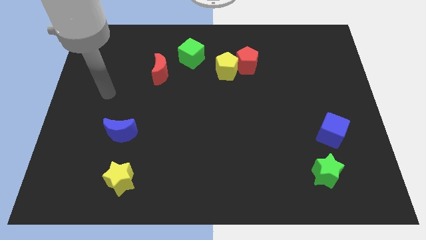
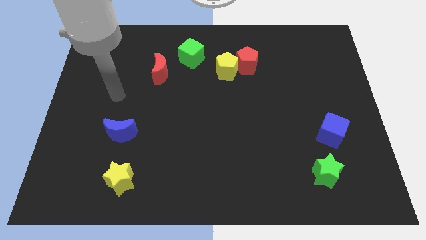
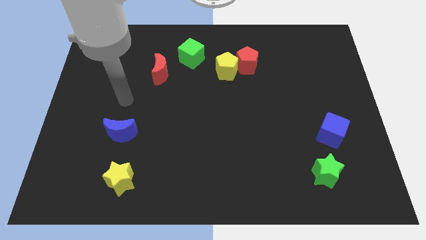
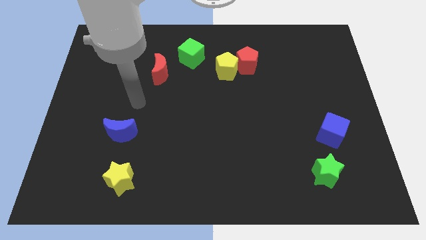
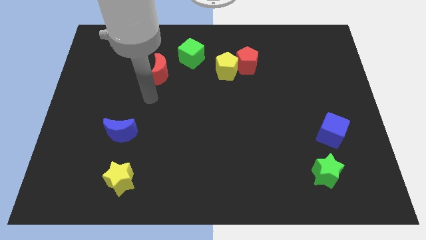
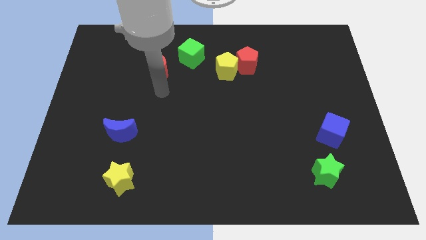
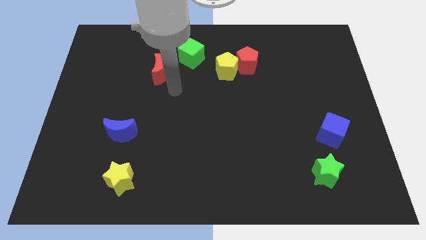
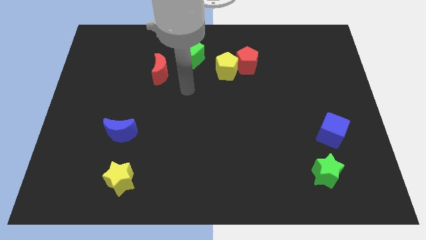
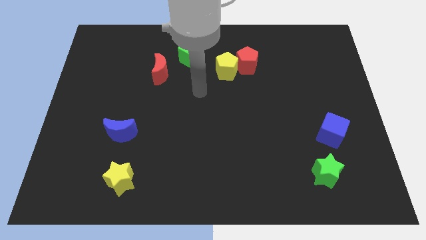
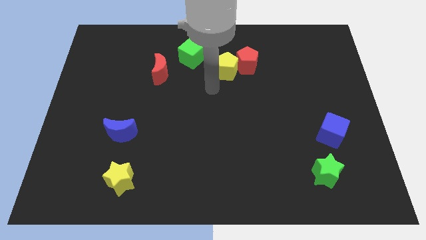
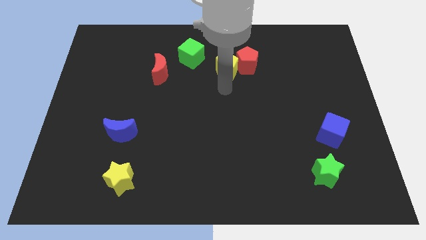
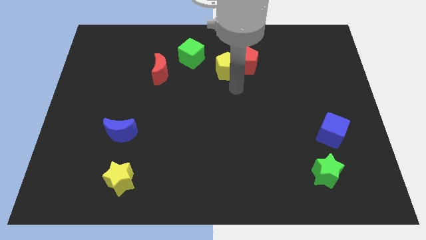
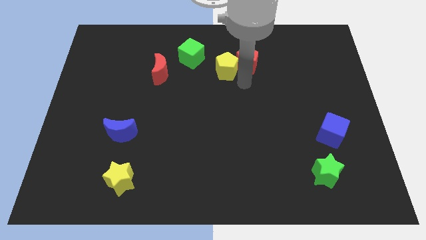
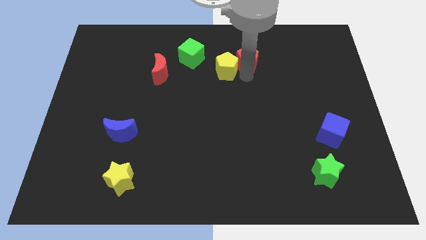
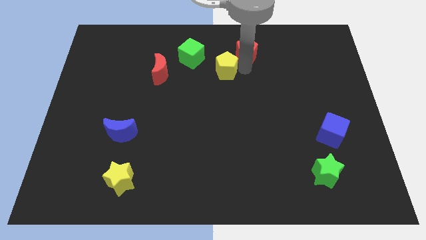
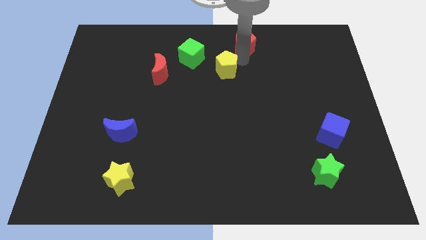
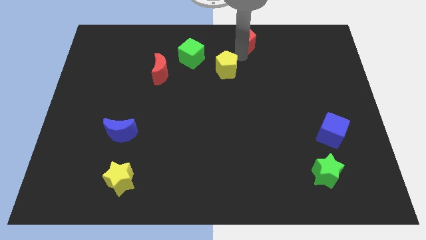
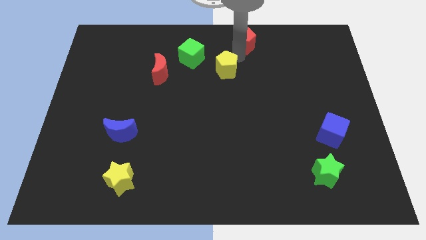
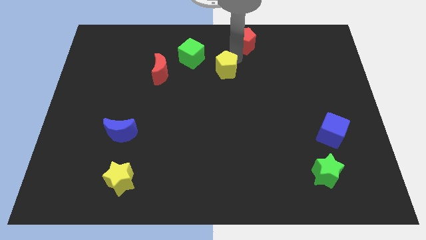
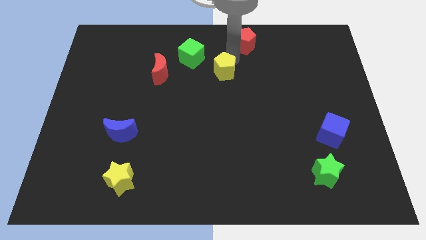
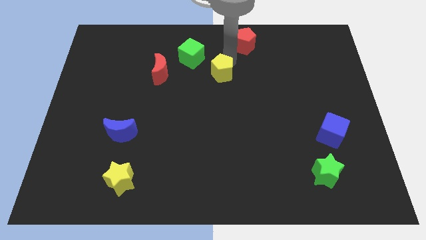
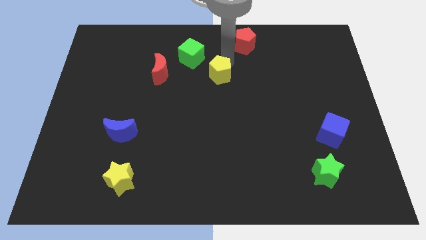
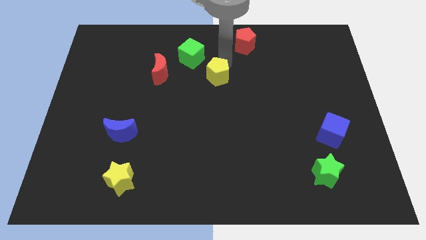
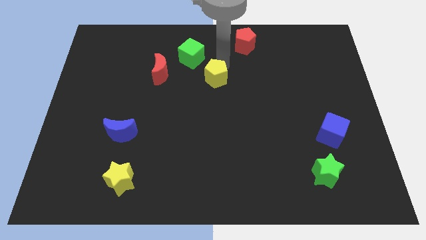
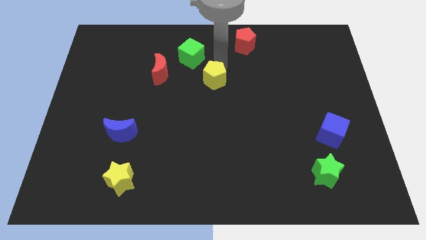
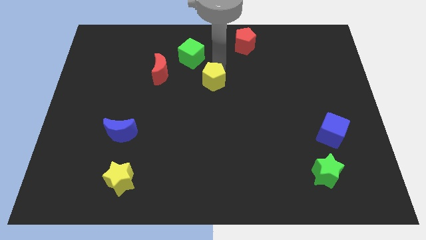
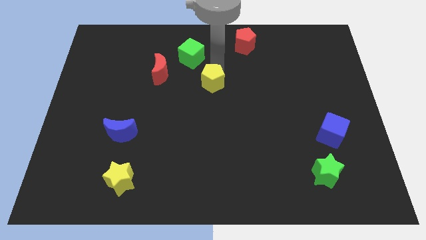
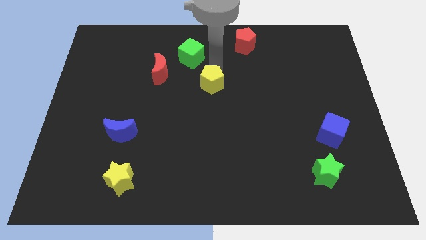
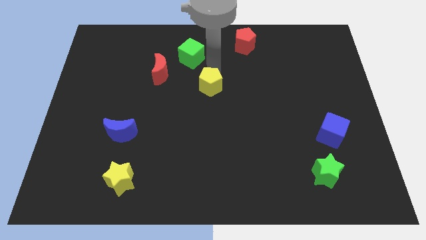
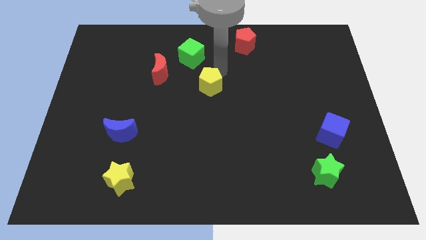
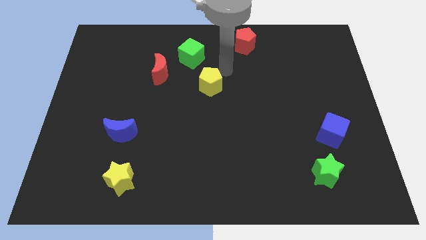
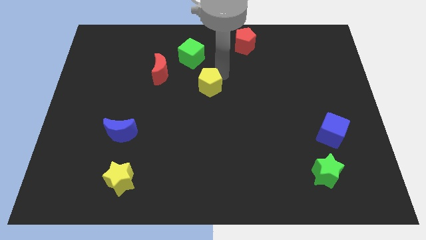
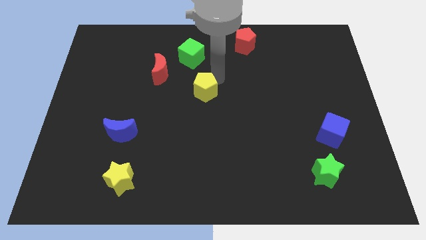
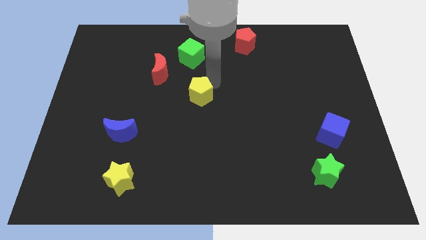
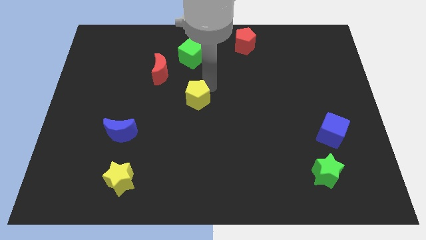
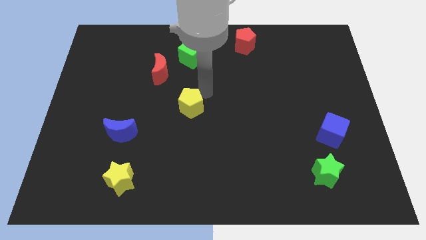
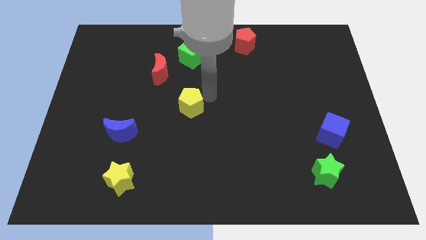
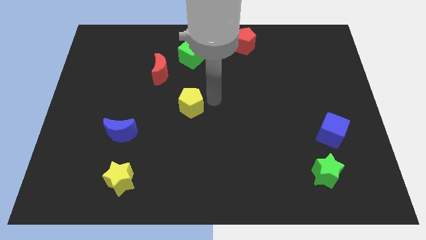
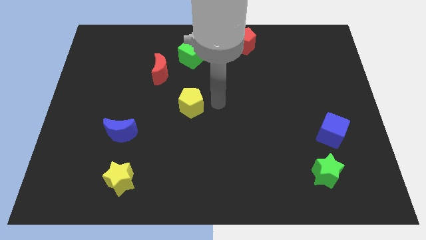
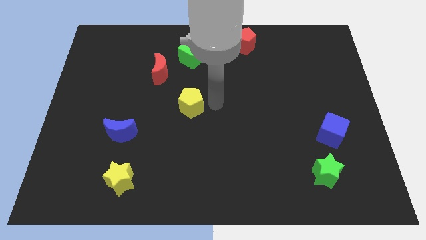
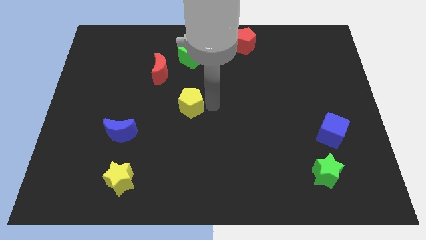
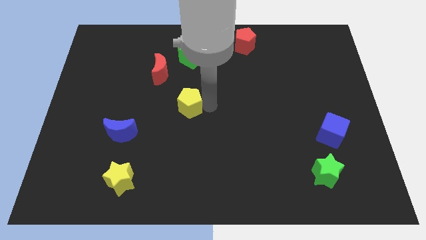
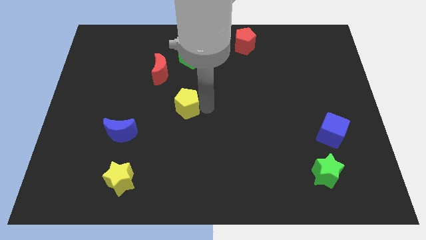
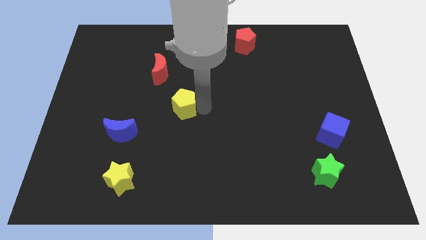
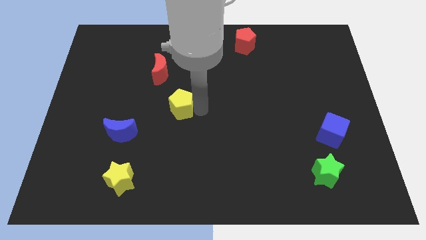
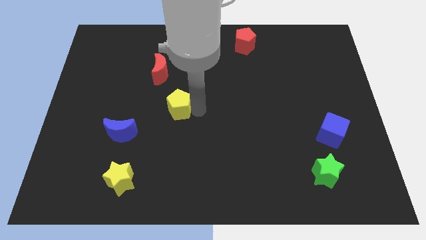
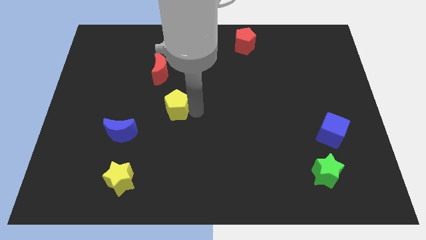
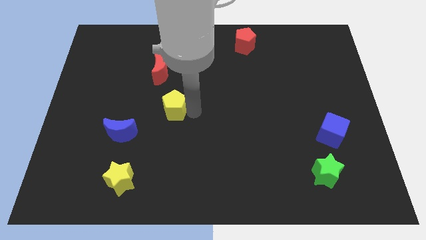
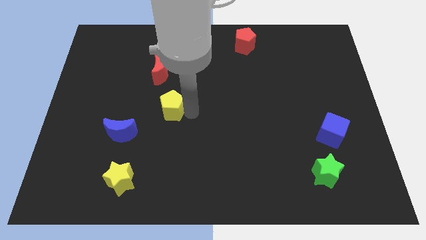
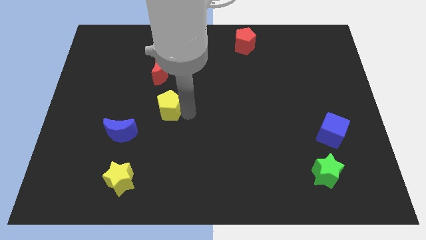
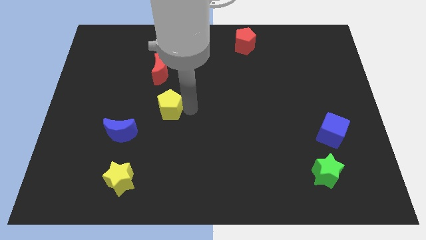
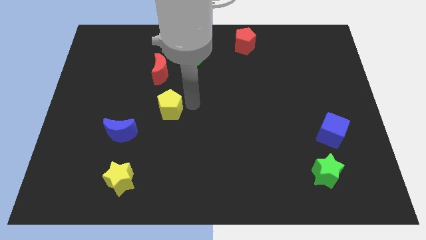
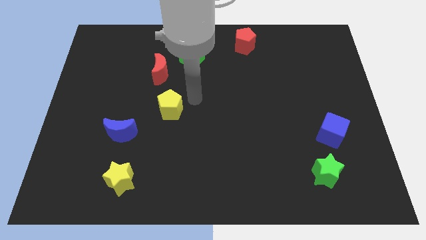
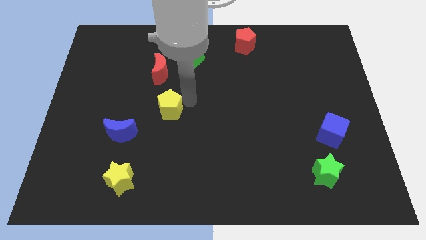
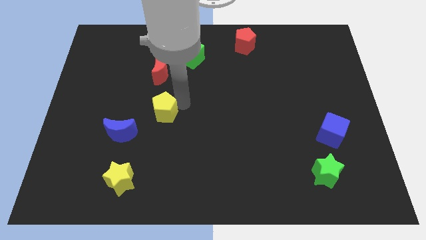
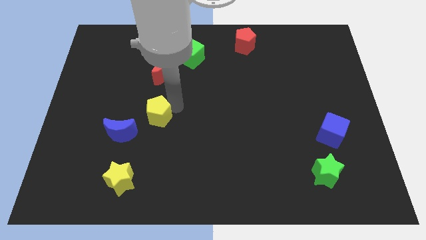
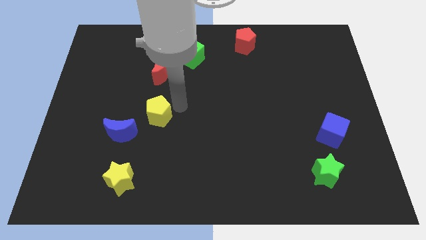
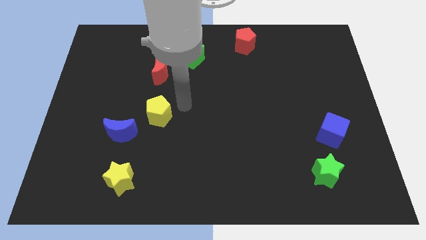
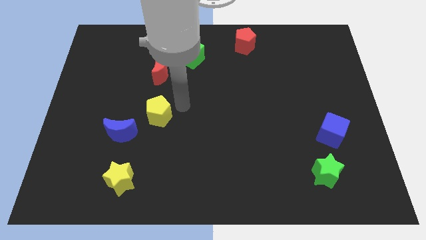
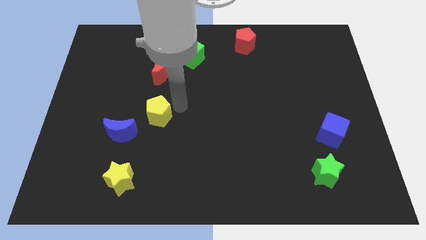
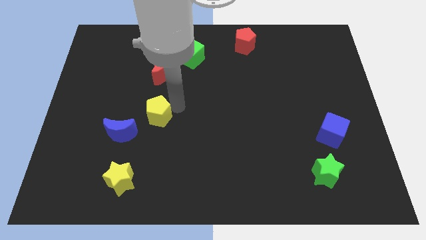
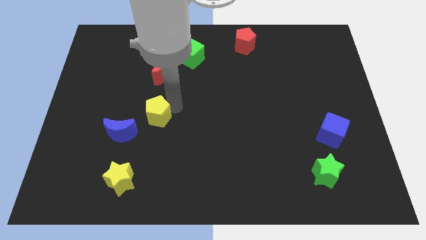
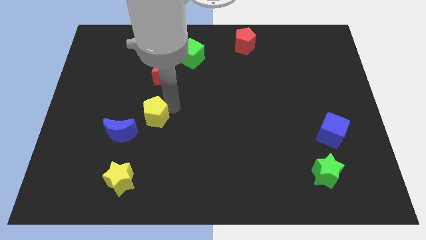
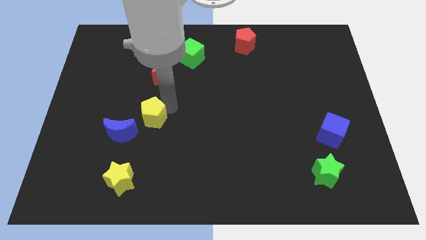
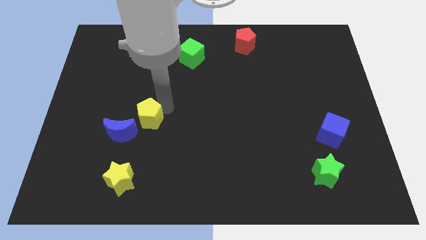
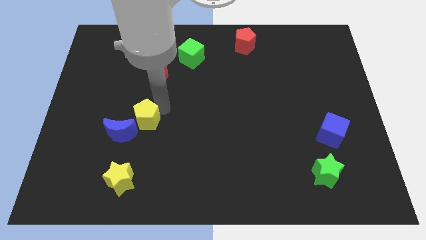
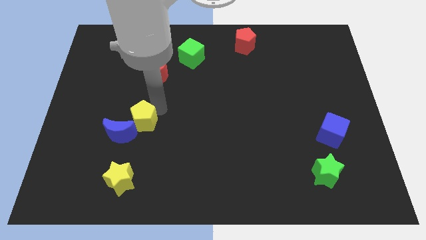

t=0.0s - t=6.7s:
slide the yellow pentagon close to the blue moon
